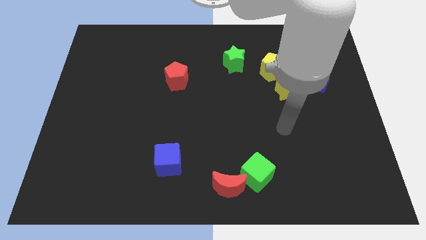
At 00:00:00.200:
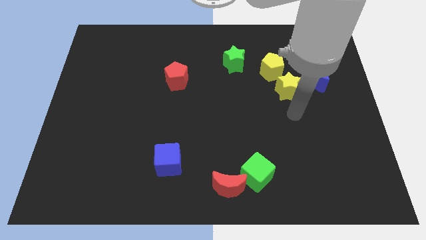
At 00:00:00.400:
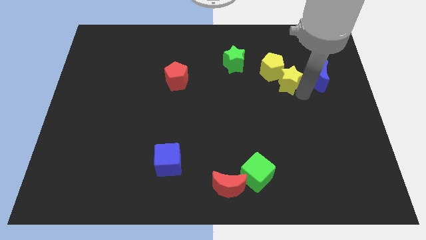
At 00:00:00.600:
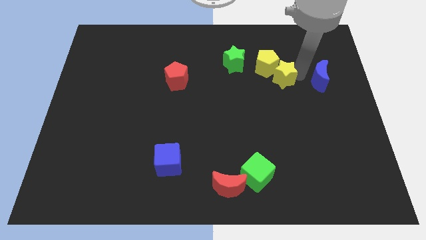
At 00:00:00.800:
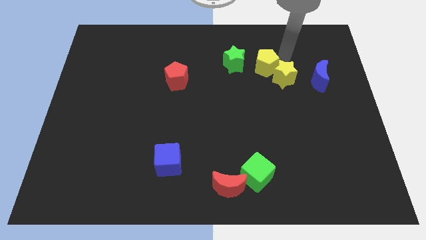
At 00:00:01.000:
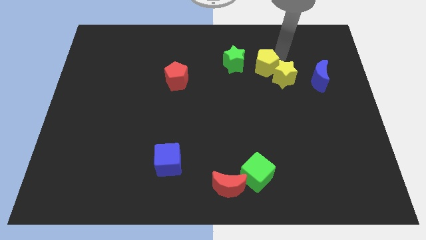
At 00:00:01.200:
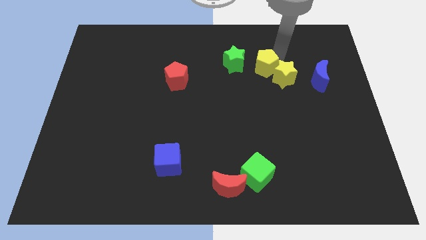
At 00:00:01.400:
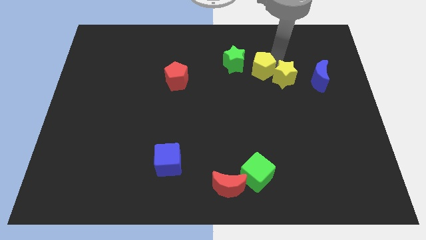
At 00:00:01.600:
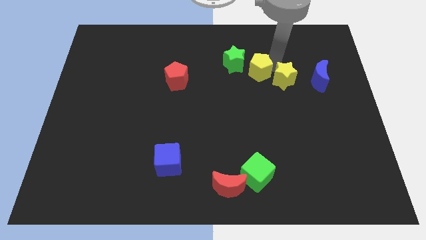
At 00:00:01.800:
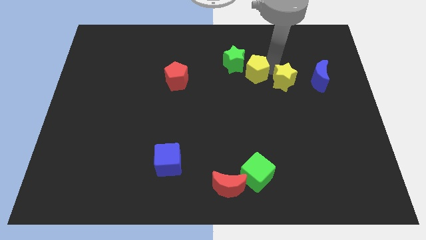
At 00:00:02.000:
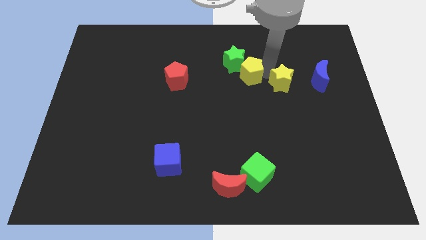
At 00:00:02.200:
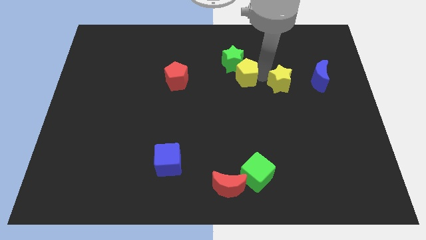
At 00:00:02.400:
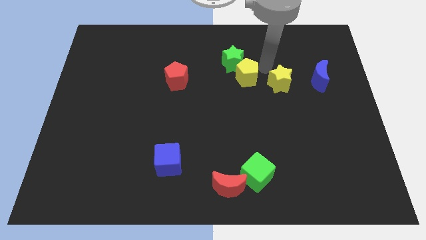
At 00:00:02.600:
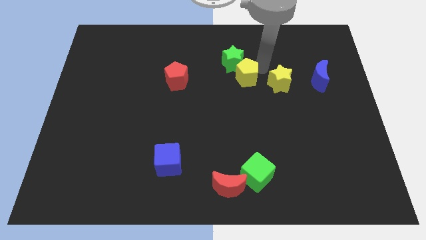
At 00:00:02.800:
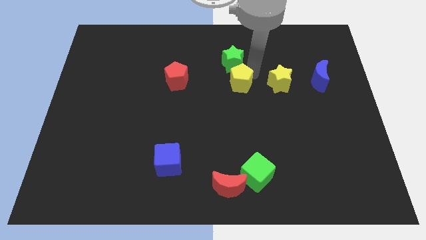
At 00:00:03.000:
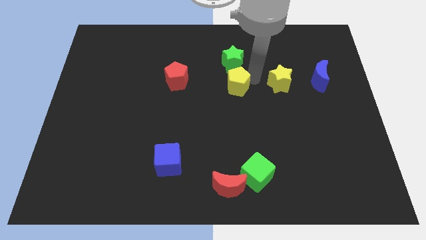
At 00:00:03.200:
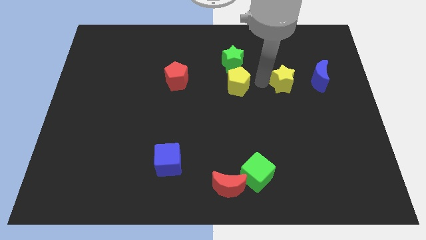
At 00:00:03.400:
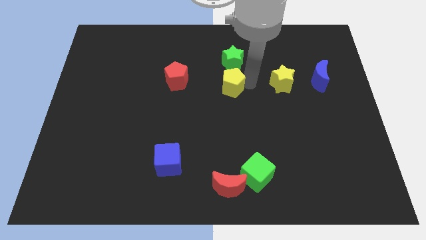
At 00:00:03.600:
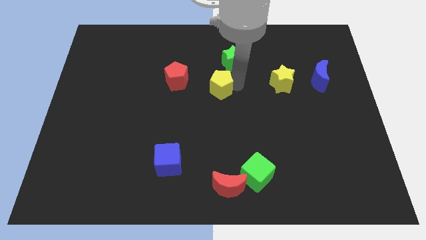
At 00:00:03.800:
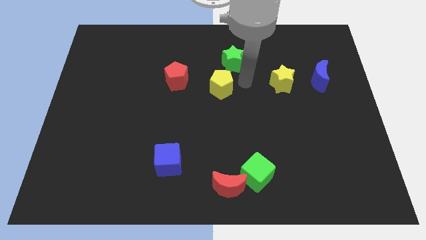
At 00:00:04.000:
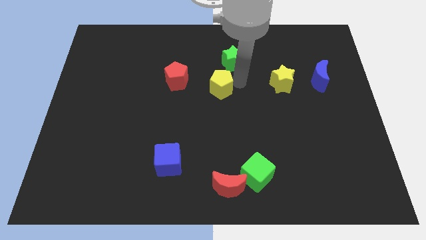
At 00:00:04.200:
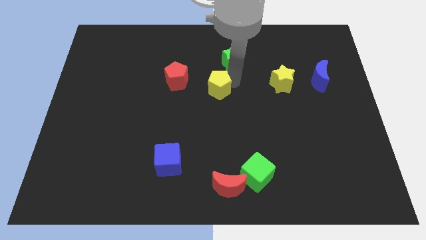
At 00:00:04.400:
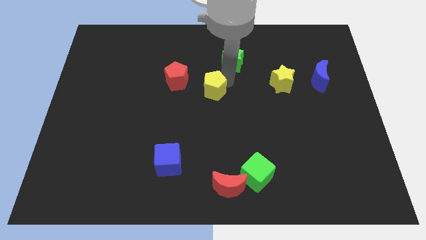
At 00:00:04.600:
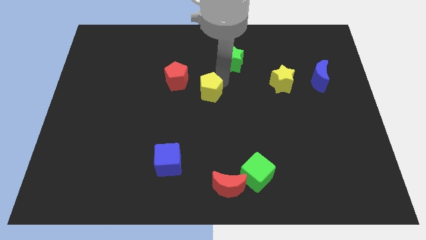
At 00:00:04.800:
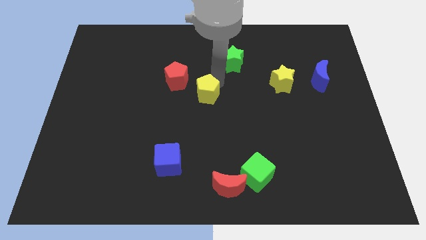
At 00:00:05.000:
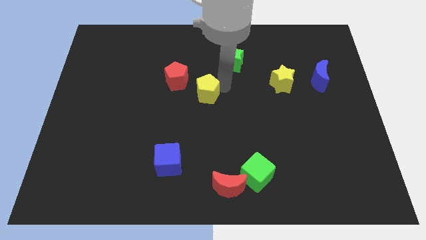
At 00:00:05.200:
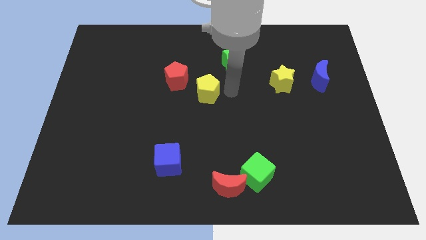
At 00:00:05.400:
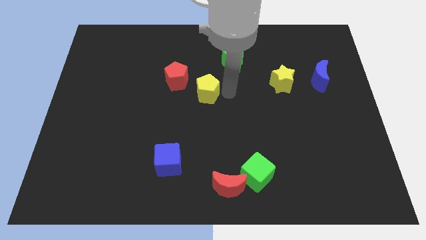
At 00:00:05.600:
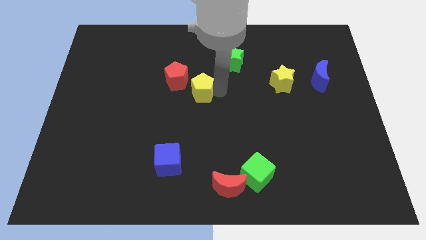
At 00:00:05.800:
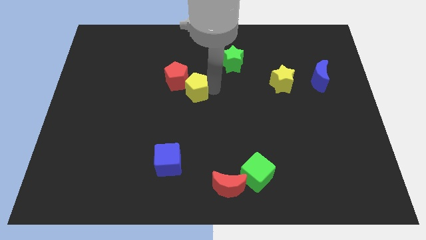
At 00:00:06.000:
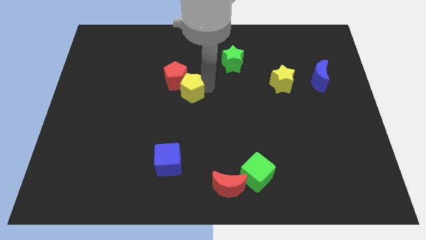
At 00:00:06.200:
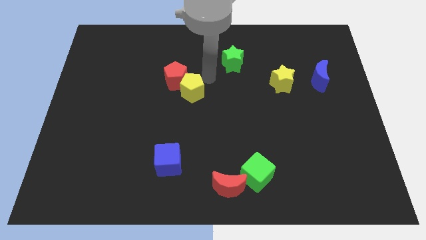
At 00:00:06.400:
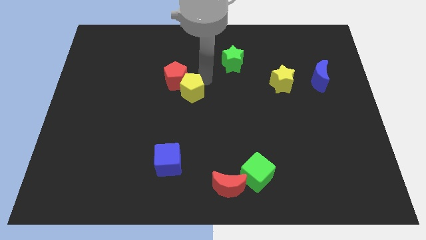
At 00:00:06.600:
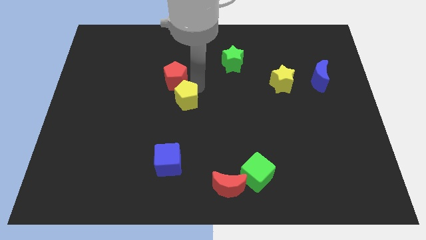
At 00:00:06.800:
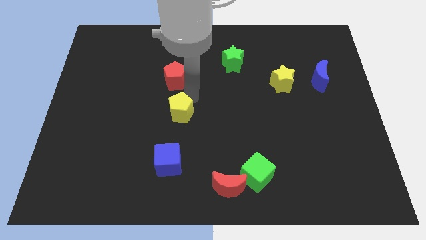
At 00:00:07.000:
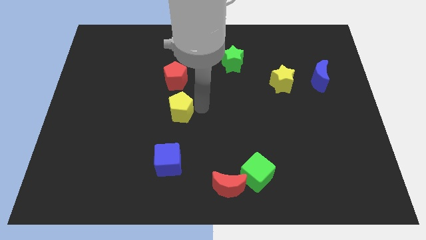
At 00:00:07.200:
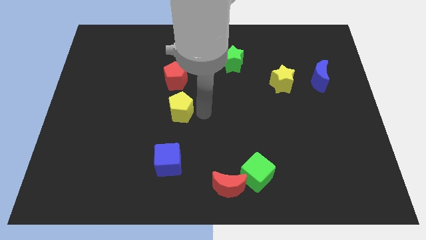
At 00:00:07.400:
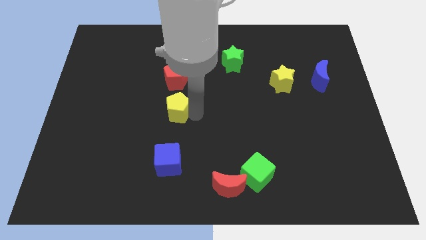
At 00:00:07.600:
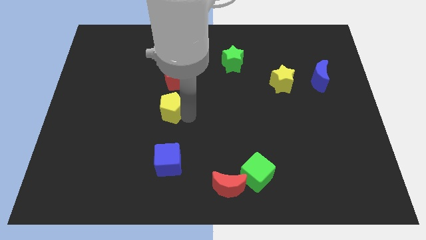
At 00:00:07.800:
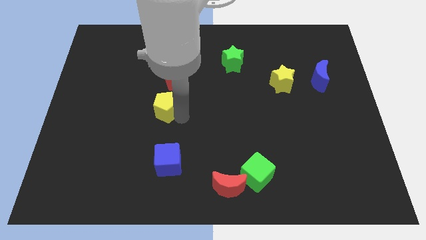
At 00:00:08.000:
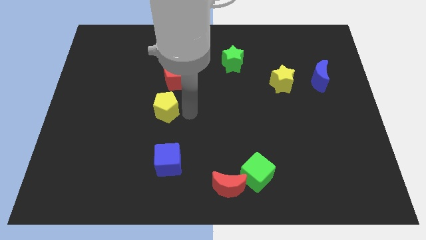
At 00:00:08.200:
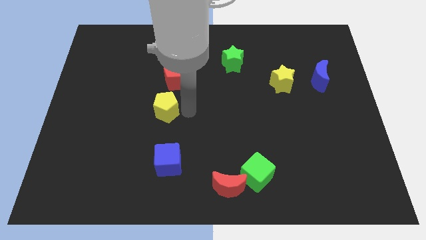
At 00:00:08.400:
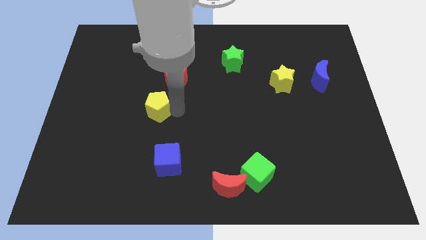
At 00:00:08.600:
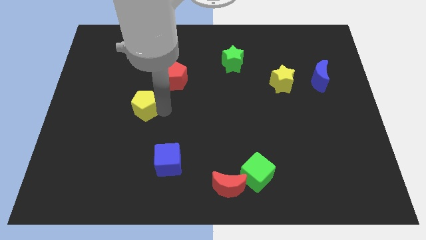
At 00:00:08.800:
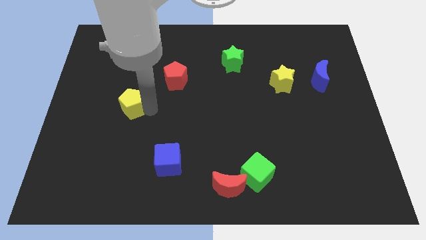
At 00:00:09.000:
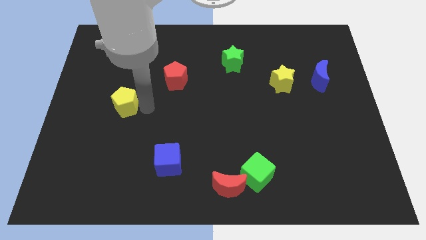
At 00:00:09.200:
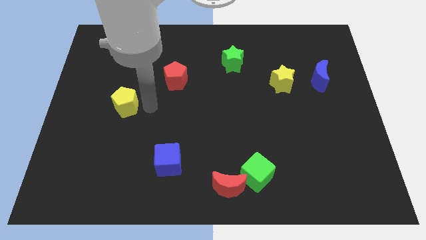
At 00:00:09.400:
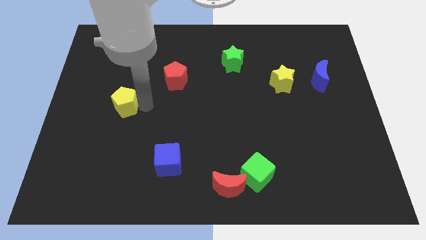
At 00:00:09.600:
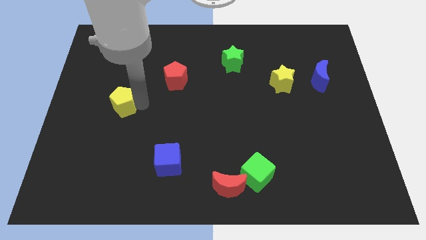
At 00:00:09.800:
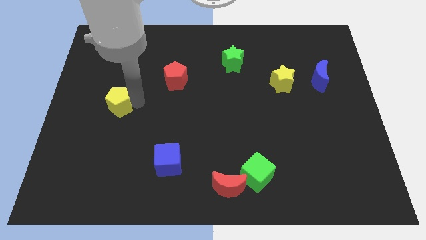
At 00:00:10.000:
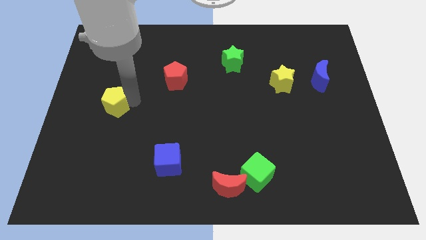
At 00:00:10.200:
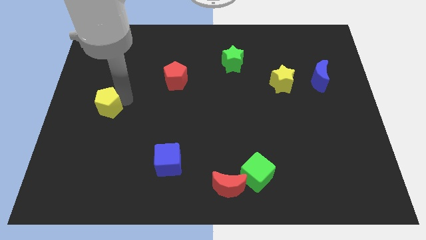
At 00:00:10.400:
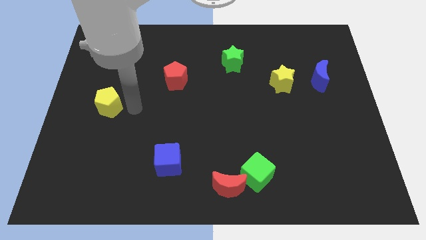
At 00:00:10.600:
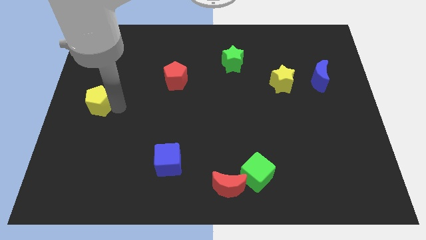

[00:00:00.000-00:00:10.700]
push the yellow pentagon to the center left

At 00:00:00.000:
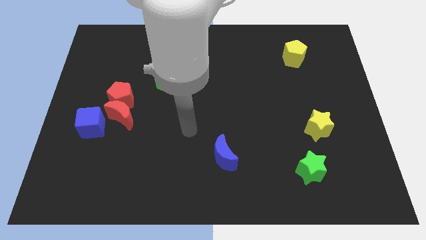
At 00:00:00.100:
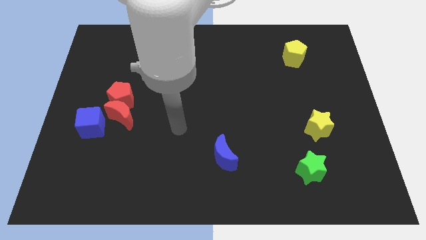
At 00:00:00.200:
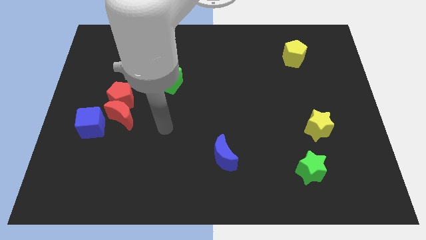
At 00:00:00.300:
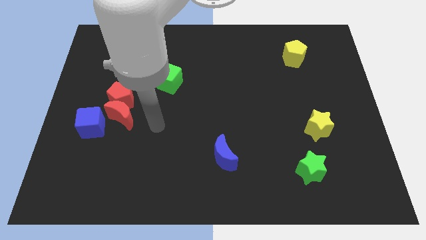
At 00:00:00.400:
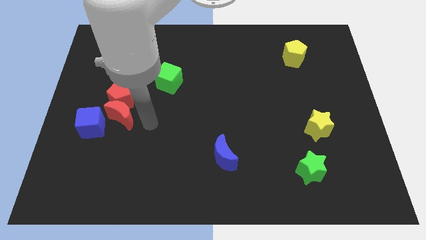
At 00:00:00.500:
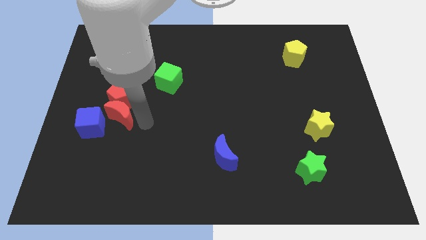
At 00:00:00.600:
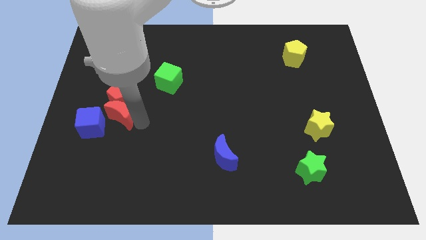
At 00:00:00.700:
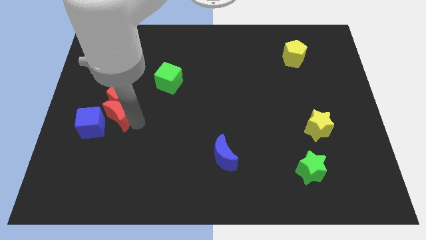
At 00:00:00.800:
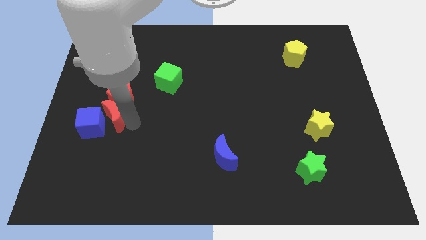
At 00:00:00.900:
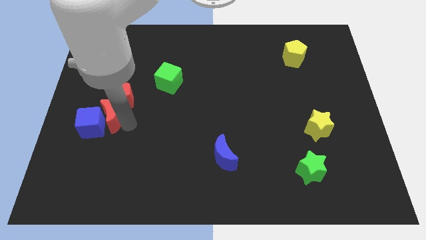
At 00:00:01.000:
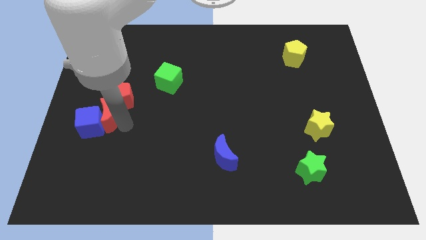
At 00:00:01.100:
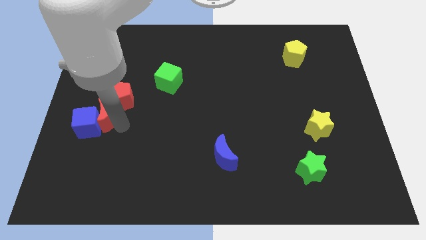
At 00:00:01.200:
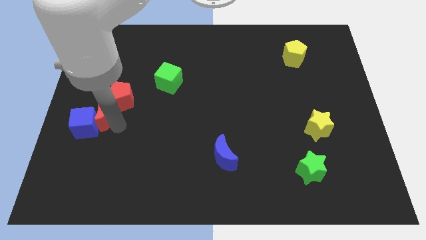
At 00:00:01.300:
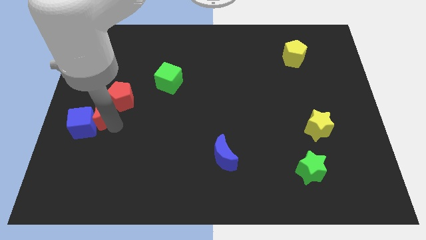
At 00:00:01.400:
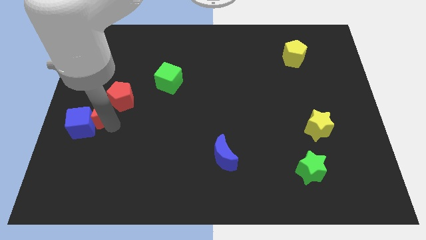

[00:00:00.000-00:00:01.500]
put the red moon to the center left
